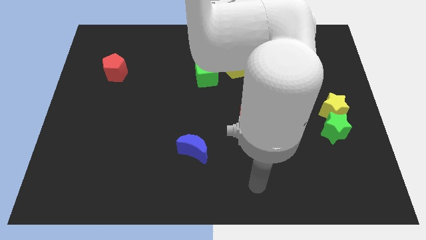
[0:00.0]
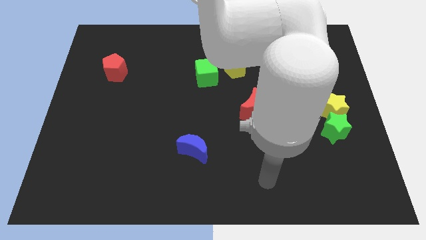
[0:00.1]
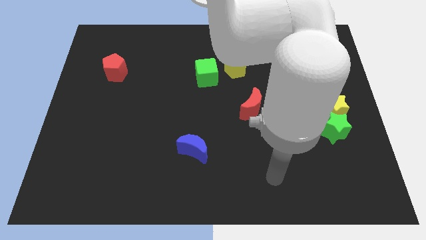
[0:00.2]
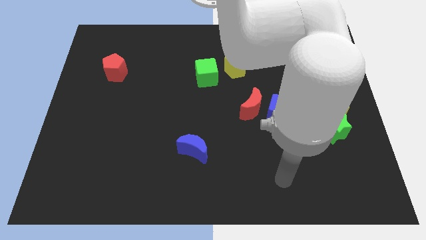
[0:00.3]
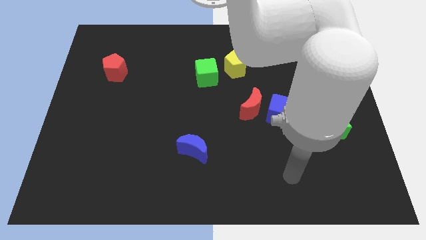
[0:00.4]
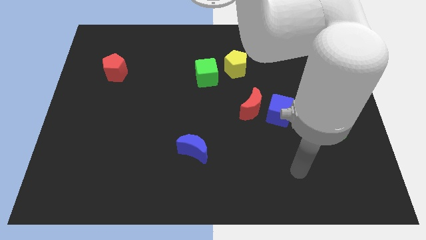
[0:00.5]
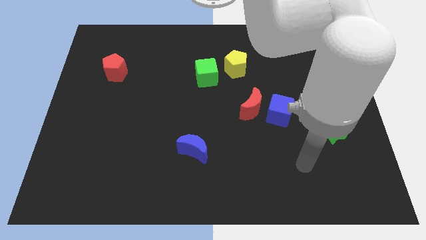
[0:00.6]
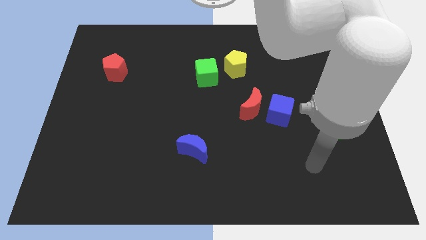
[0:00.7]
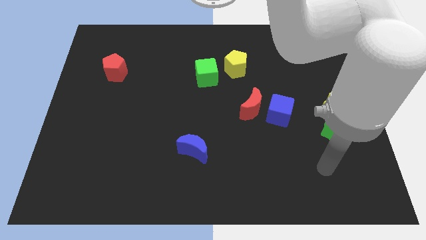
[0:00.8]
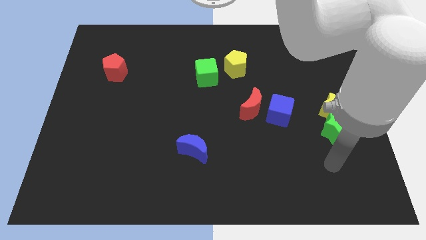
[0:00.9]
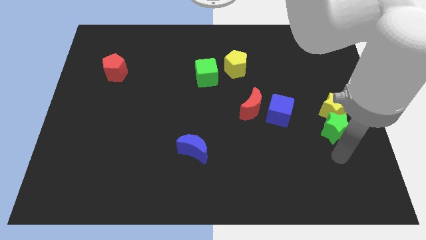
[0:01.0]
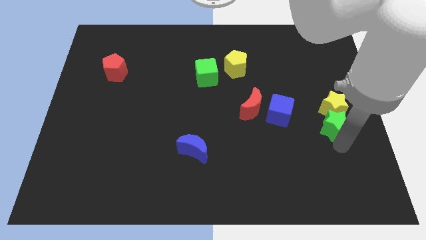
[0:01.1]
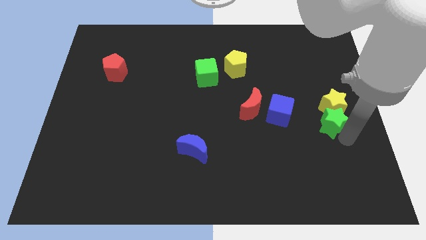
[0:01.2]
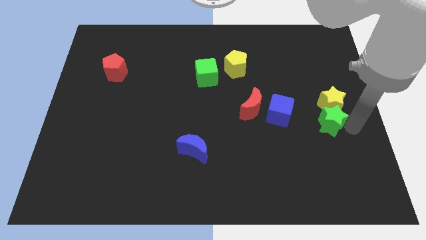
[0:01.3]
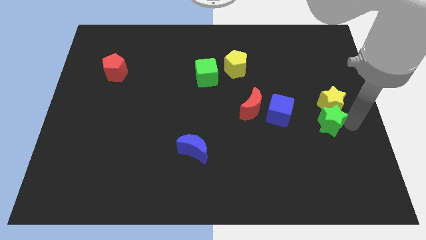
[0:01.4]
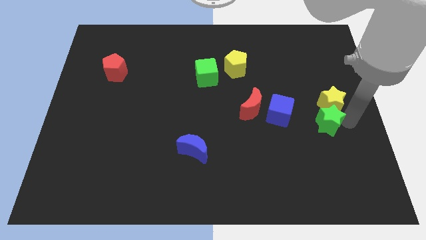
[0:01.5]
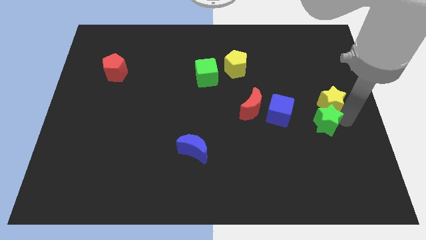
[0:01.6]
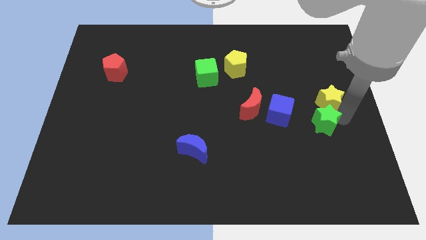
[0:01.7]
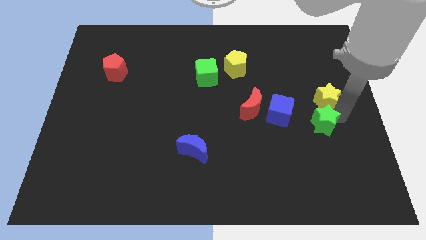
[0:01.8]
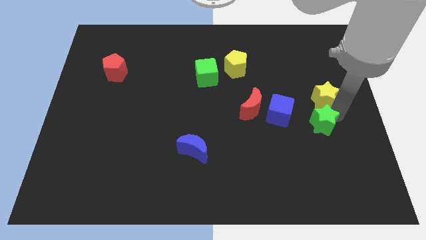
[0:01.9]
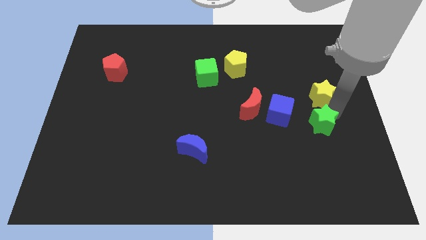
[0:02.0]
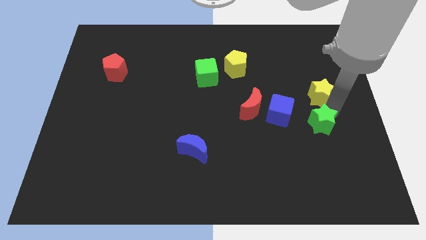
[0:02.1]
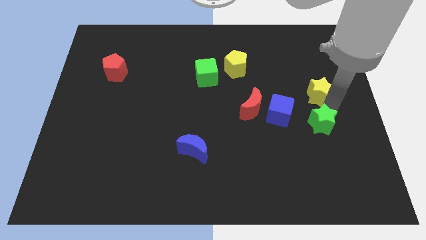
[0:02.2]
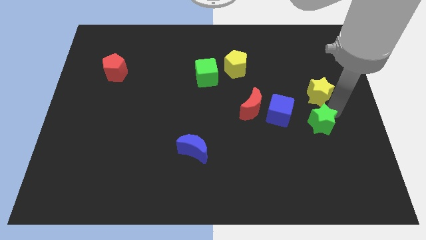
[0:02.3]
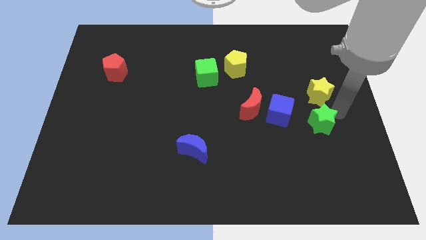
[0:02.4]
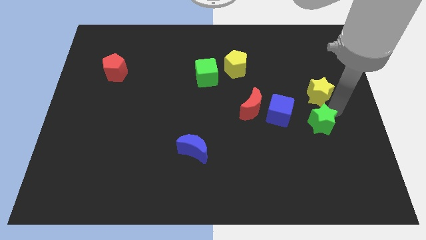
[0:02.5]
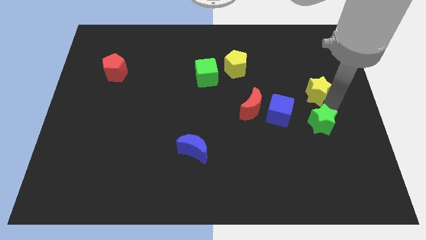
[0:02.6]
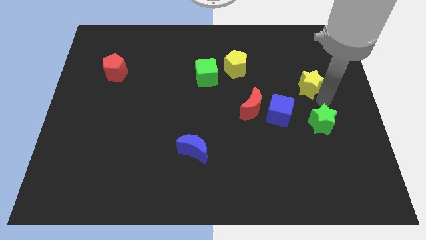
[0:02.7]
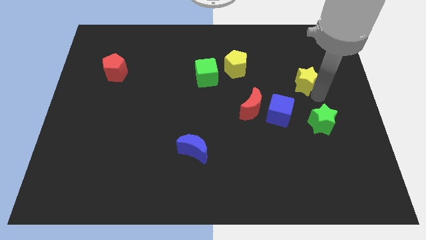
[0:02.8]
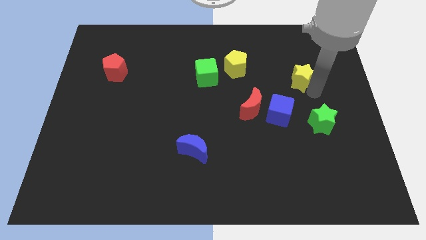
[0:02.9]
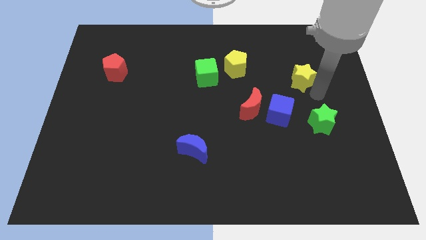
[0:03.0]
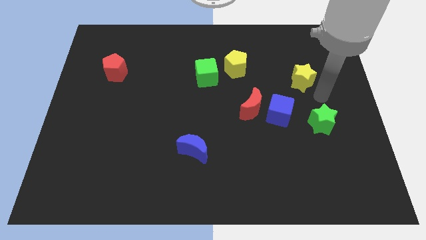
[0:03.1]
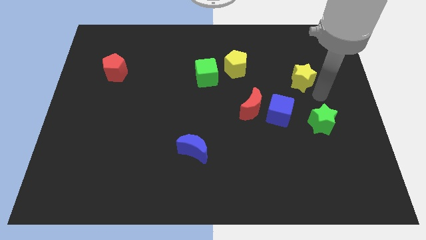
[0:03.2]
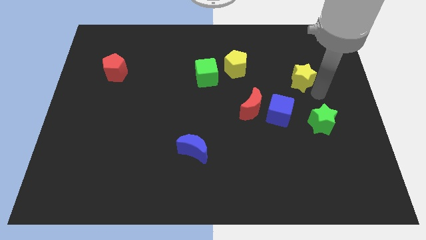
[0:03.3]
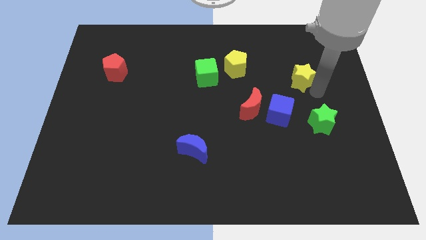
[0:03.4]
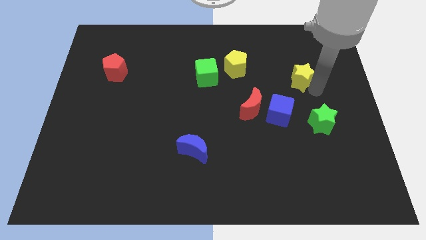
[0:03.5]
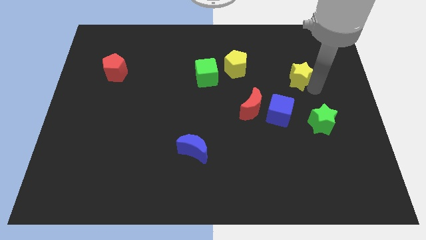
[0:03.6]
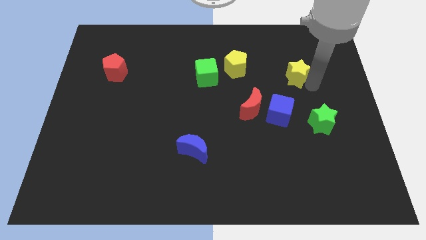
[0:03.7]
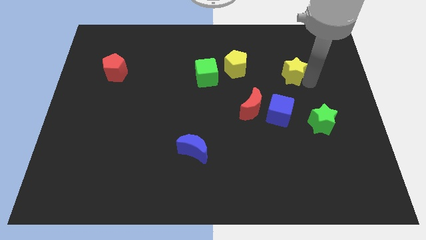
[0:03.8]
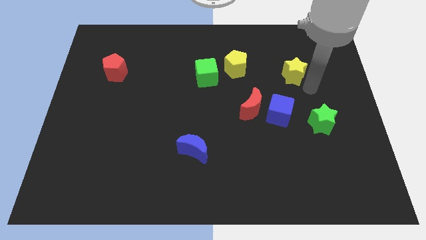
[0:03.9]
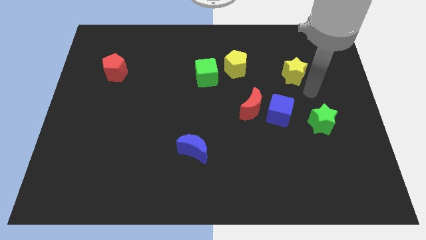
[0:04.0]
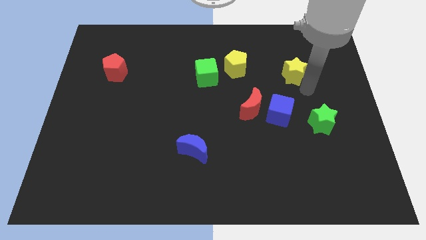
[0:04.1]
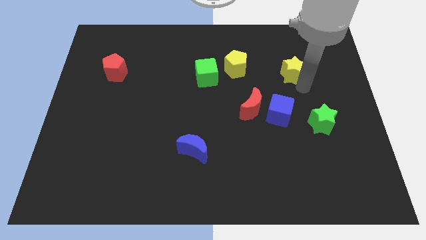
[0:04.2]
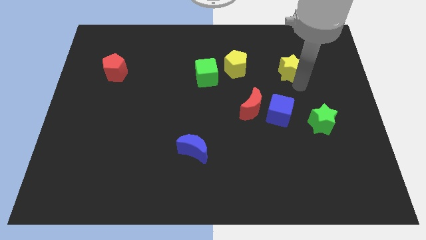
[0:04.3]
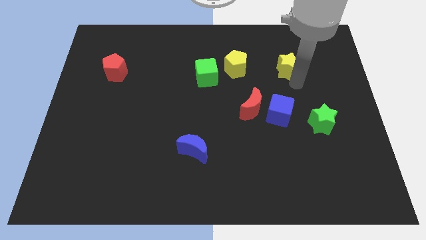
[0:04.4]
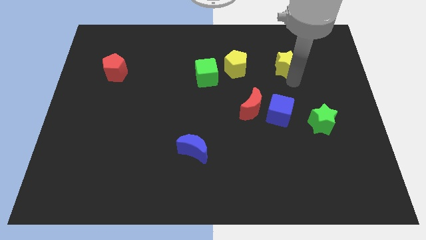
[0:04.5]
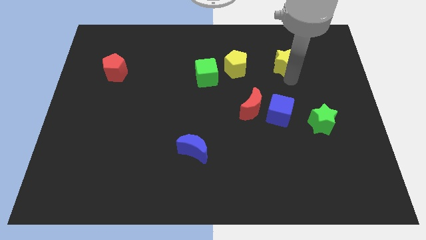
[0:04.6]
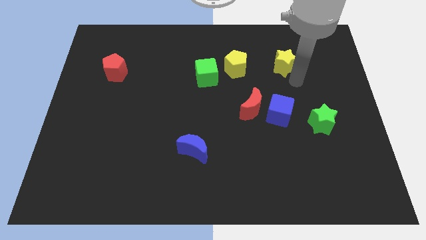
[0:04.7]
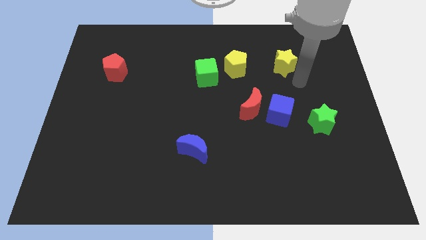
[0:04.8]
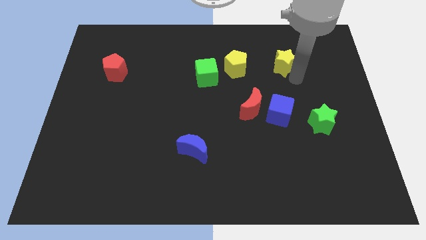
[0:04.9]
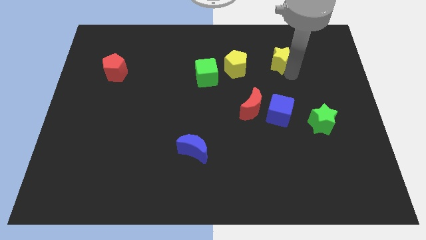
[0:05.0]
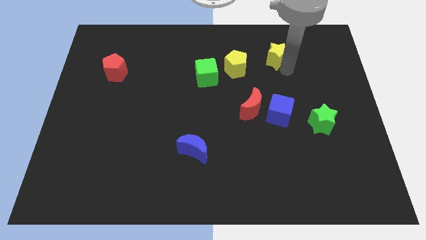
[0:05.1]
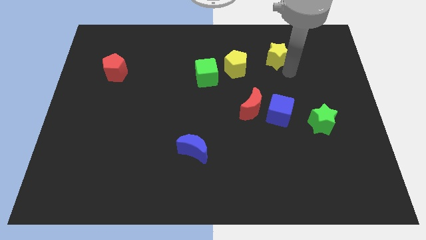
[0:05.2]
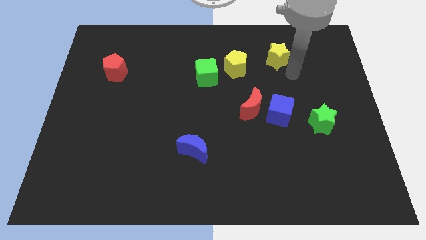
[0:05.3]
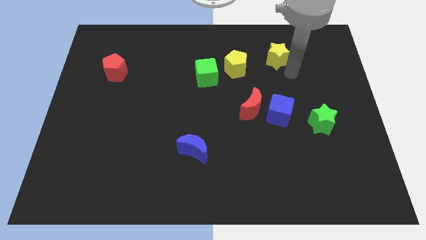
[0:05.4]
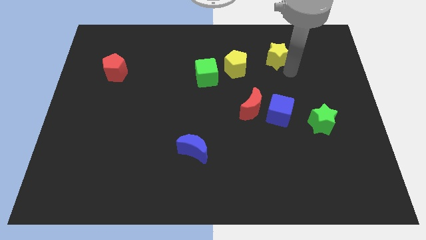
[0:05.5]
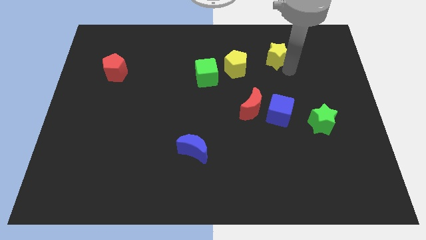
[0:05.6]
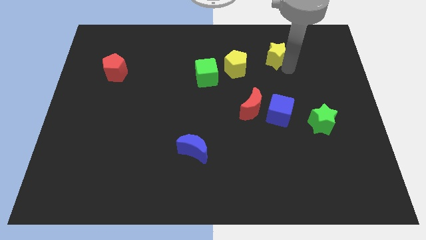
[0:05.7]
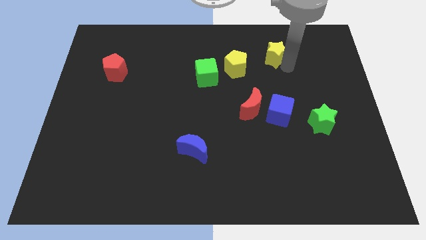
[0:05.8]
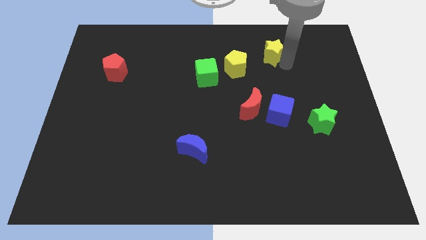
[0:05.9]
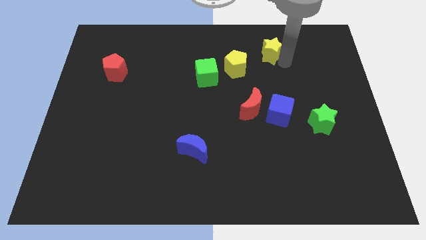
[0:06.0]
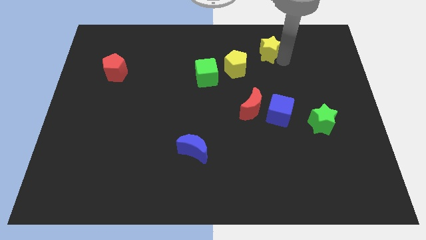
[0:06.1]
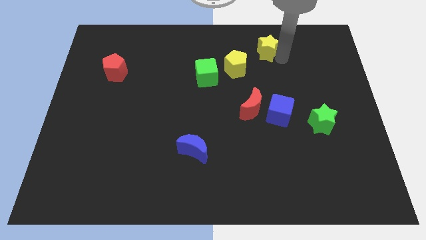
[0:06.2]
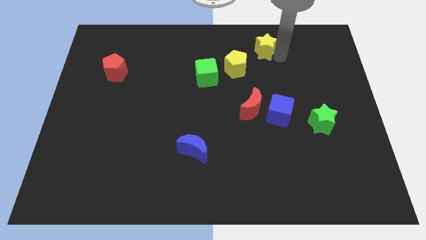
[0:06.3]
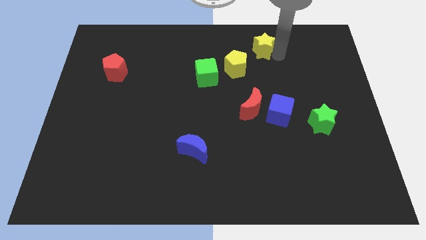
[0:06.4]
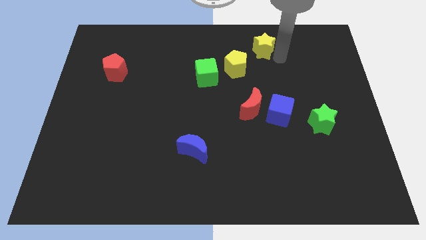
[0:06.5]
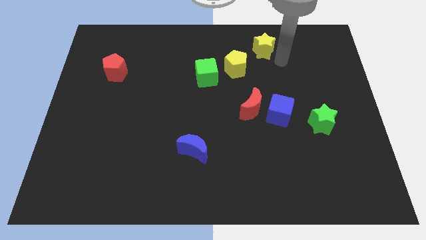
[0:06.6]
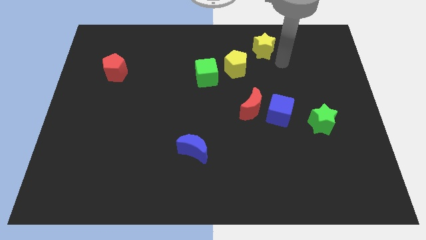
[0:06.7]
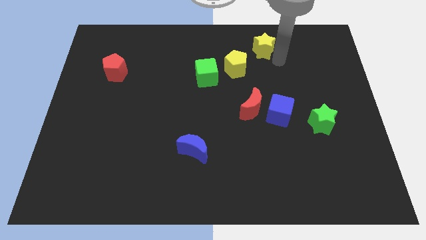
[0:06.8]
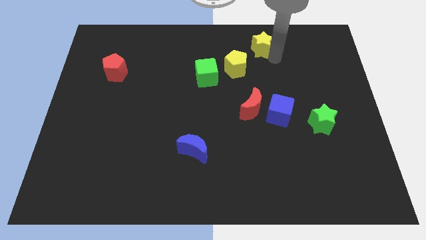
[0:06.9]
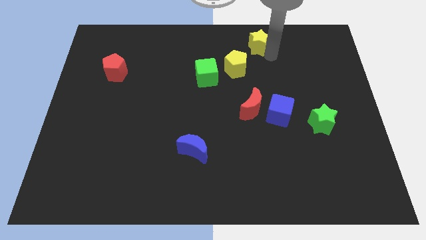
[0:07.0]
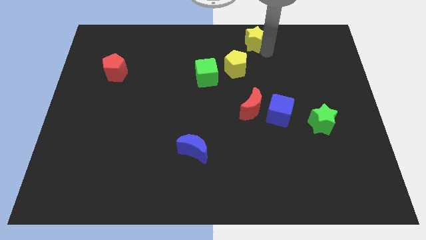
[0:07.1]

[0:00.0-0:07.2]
slide the yellow star to the towards your base
